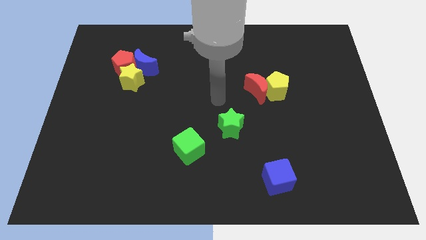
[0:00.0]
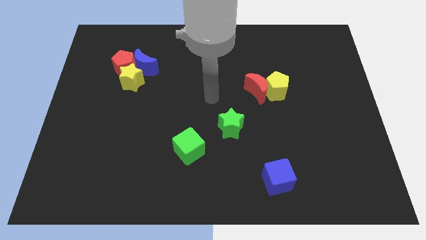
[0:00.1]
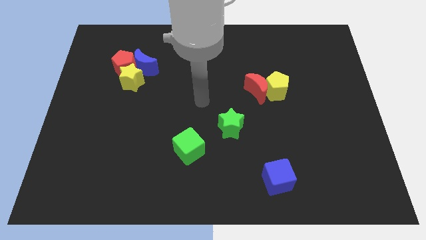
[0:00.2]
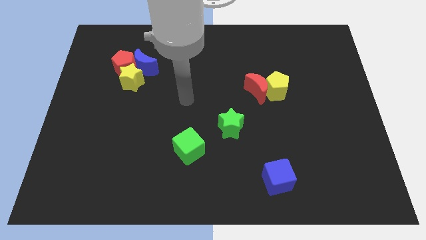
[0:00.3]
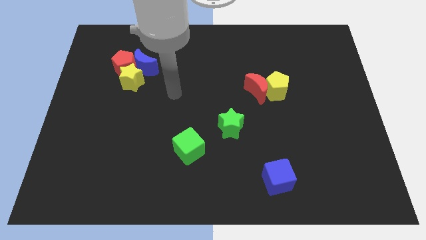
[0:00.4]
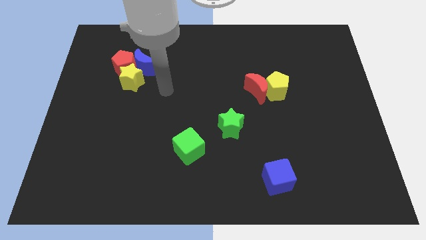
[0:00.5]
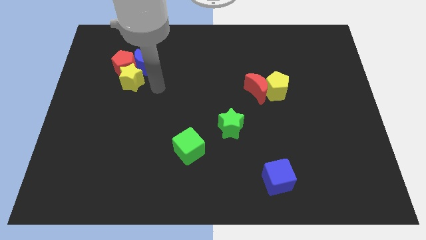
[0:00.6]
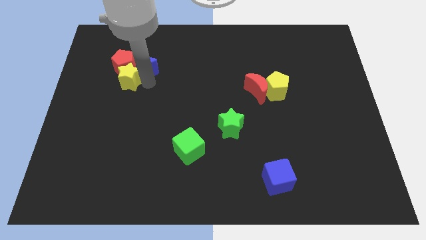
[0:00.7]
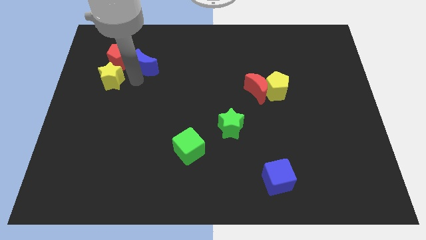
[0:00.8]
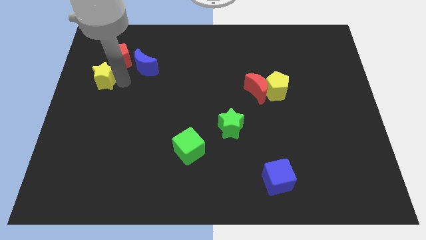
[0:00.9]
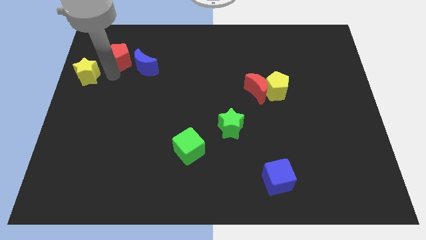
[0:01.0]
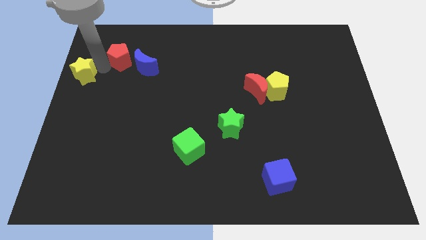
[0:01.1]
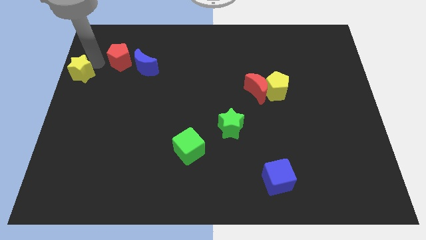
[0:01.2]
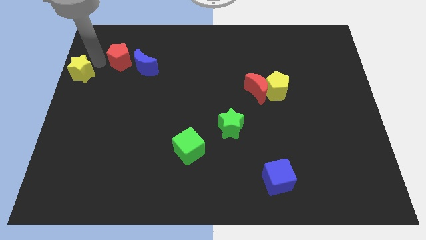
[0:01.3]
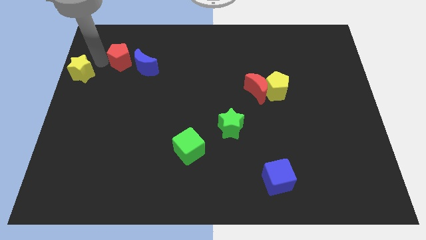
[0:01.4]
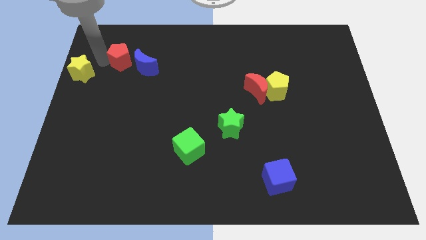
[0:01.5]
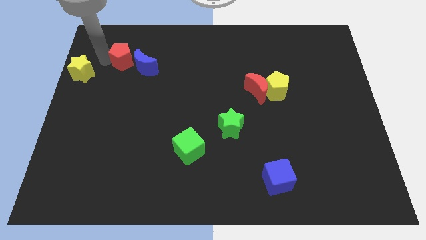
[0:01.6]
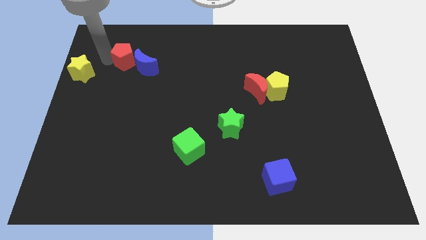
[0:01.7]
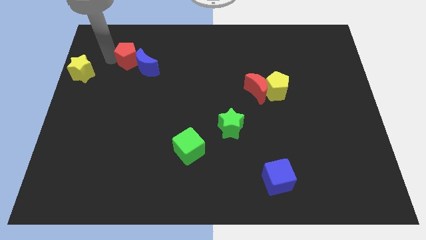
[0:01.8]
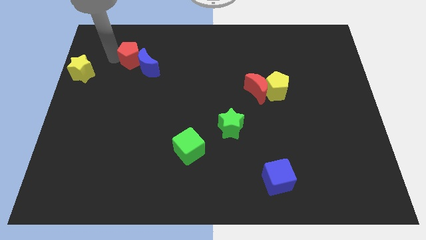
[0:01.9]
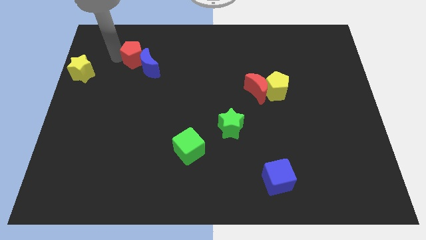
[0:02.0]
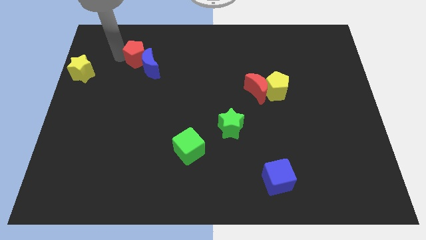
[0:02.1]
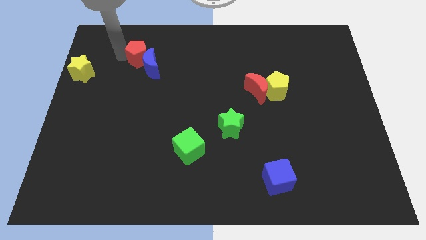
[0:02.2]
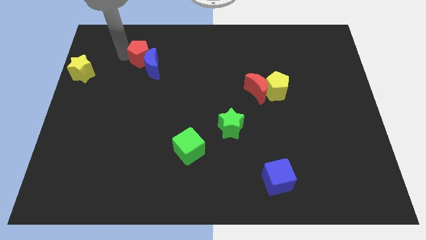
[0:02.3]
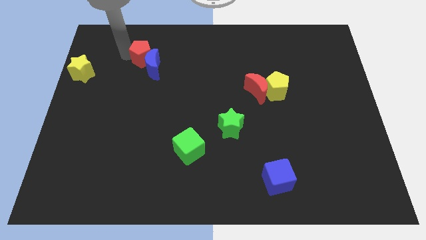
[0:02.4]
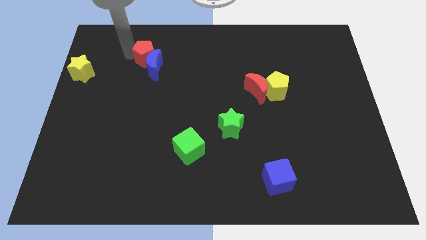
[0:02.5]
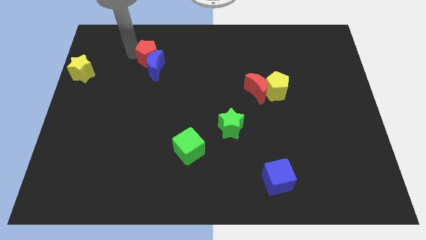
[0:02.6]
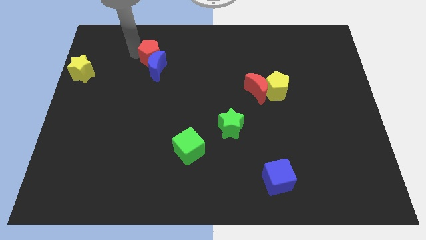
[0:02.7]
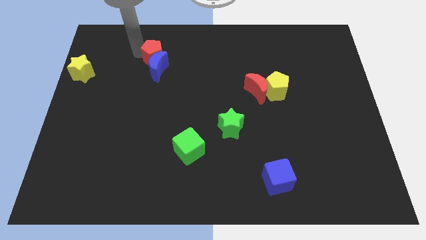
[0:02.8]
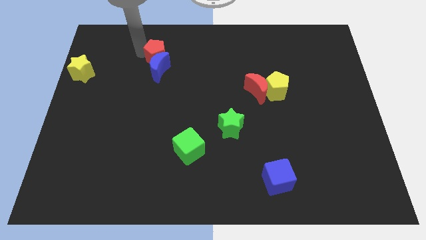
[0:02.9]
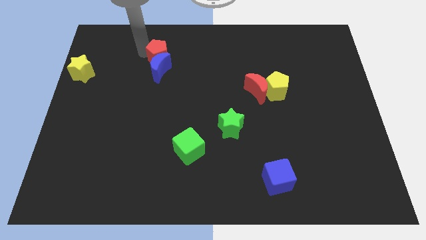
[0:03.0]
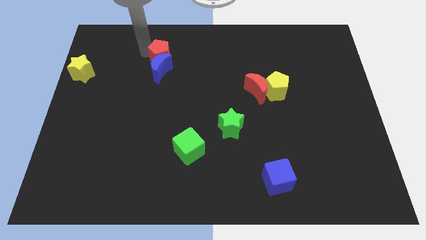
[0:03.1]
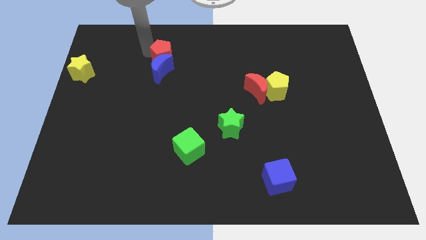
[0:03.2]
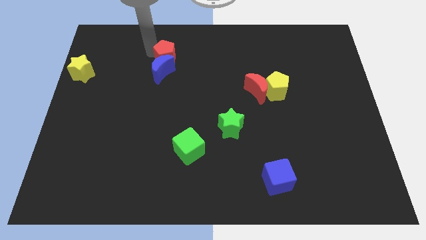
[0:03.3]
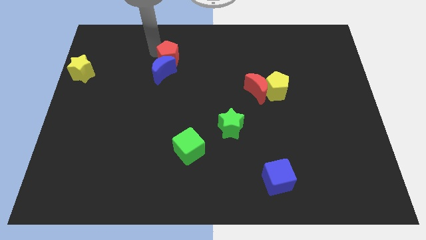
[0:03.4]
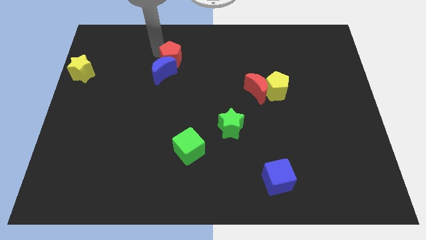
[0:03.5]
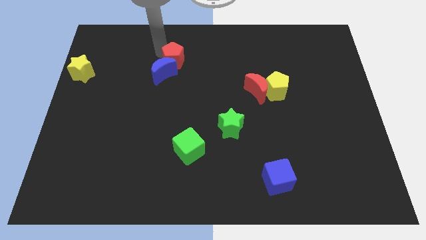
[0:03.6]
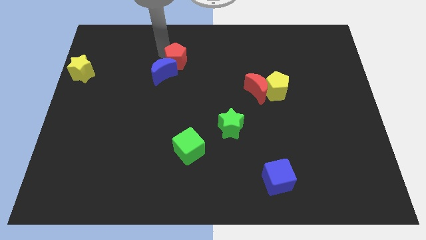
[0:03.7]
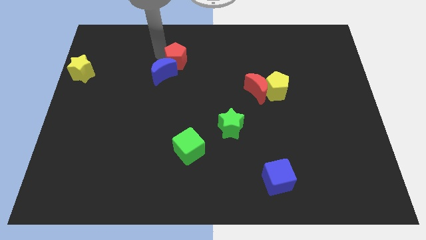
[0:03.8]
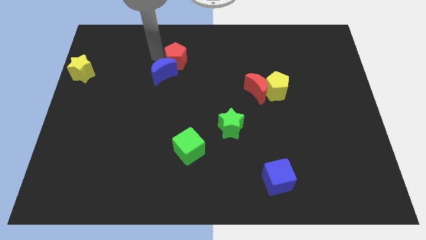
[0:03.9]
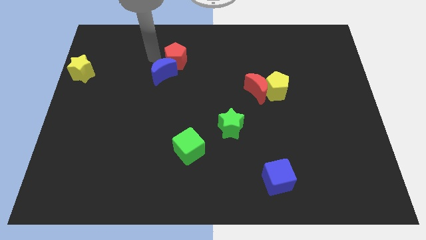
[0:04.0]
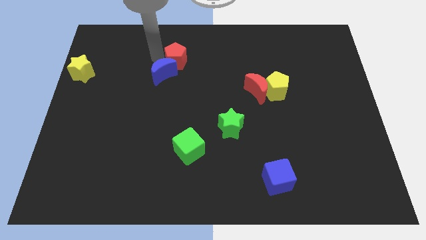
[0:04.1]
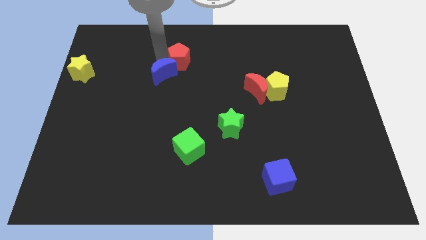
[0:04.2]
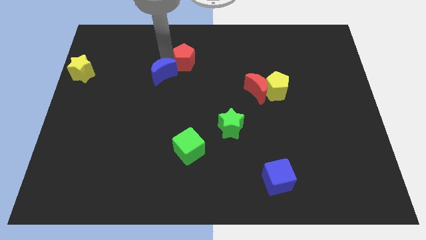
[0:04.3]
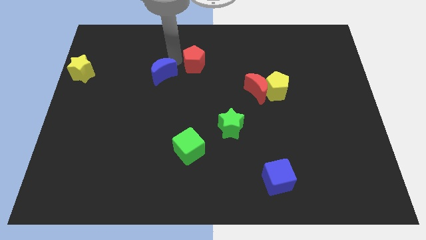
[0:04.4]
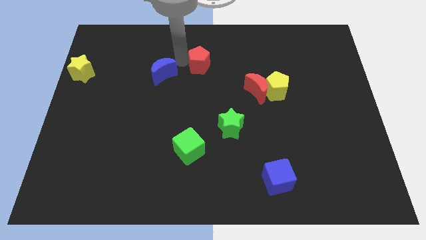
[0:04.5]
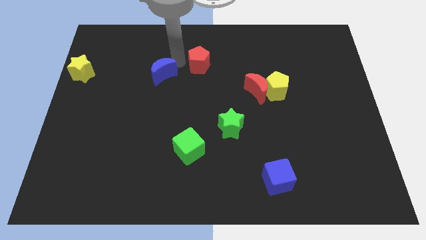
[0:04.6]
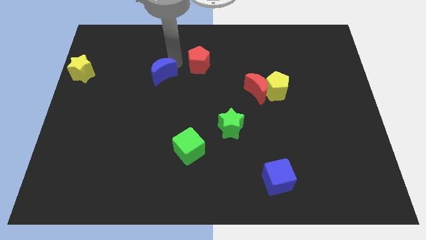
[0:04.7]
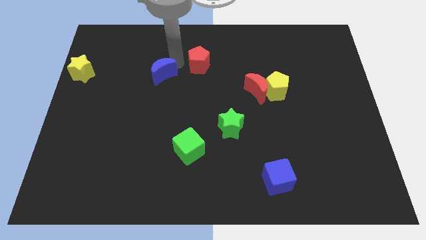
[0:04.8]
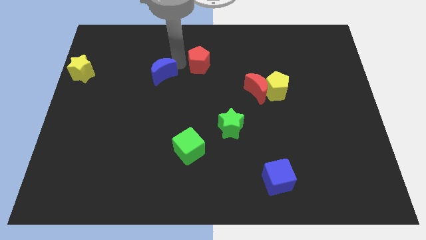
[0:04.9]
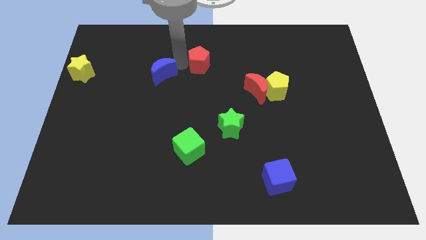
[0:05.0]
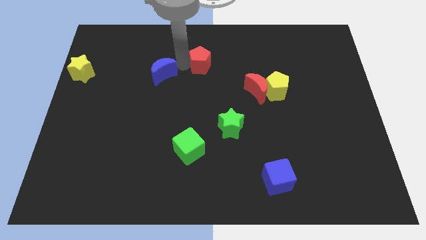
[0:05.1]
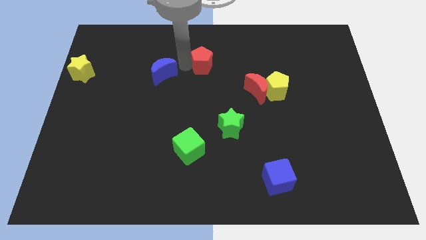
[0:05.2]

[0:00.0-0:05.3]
slide the red pentagon right

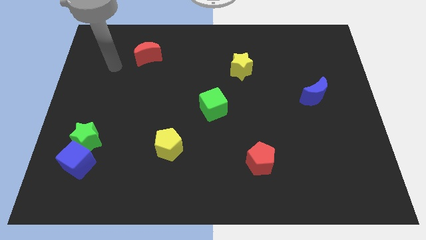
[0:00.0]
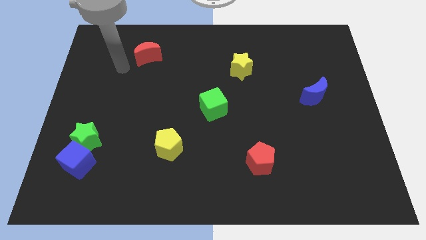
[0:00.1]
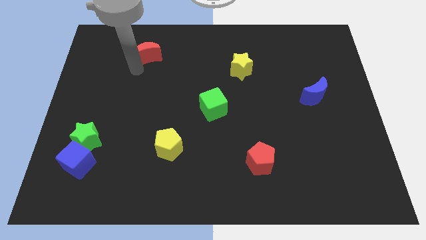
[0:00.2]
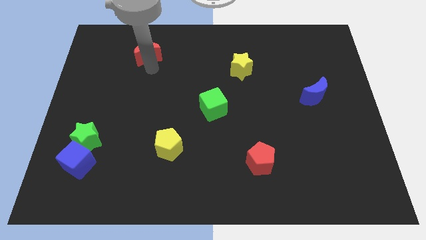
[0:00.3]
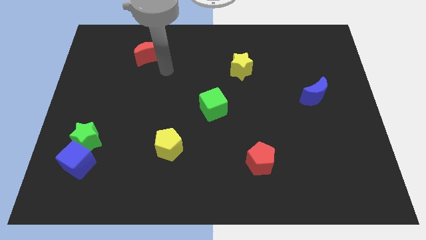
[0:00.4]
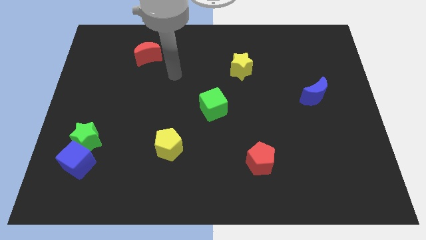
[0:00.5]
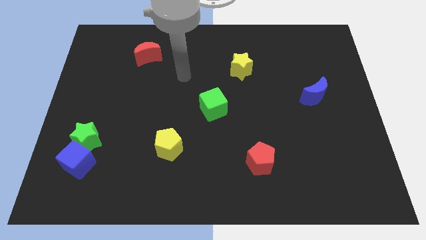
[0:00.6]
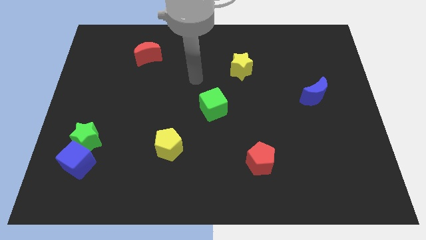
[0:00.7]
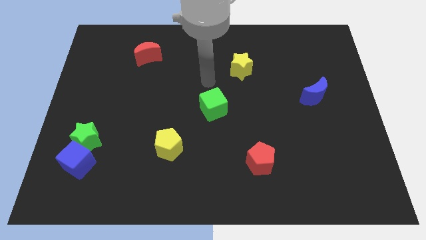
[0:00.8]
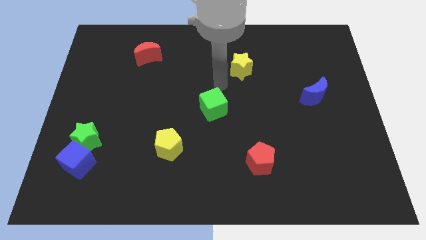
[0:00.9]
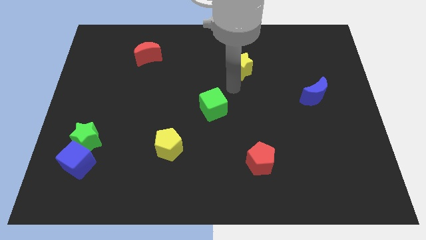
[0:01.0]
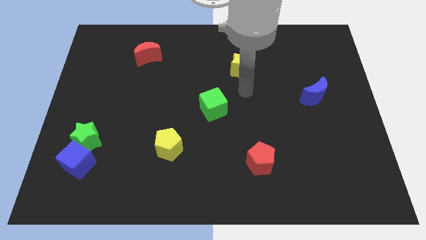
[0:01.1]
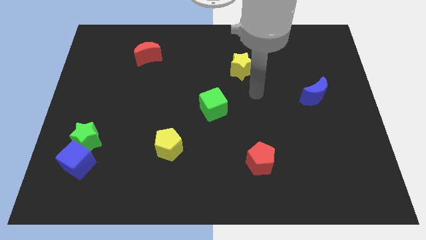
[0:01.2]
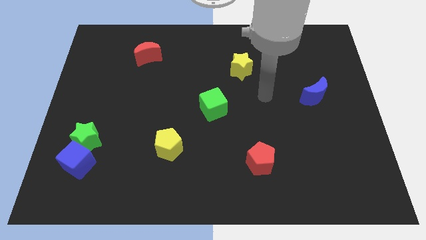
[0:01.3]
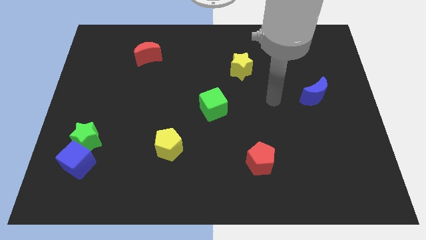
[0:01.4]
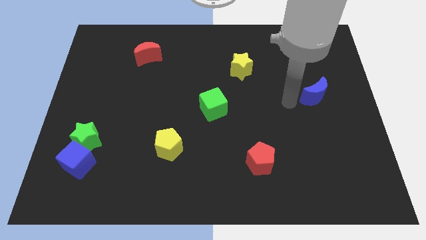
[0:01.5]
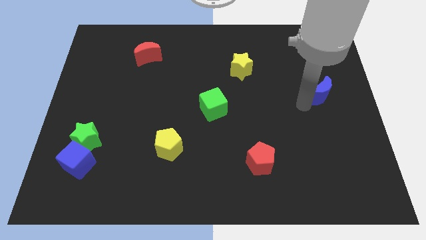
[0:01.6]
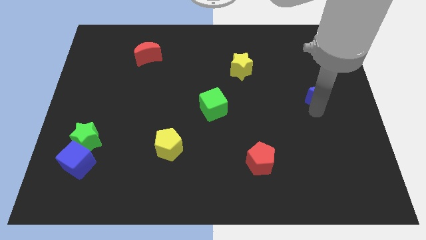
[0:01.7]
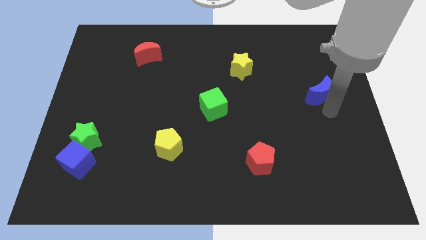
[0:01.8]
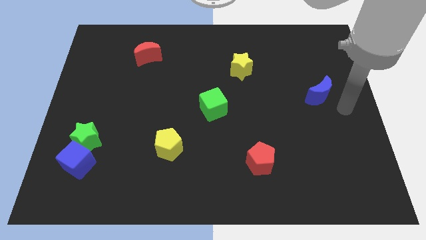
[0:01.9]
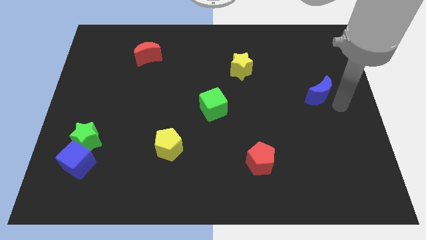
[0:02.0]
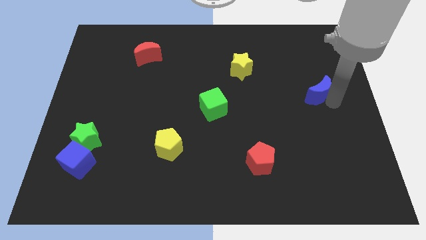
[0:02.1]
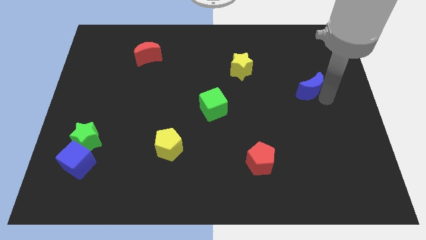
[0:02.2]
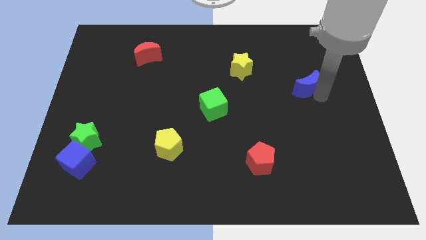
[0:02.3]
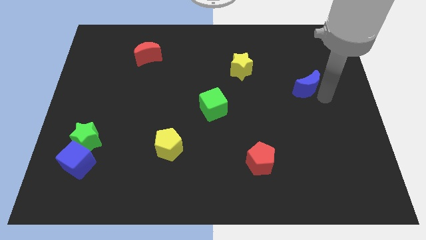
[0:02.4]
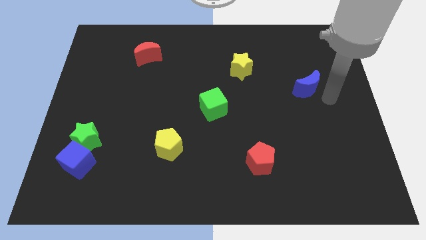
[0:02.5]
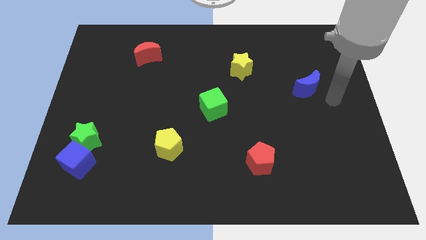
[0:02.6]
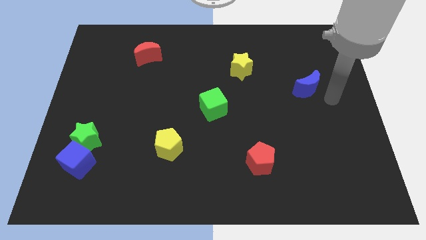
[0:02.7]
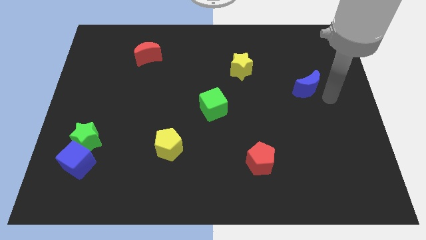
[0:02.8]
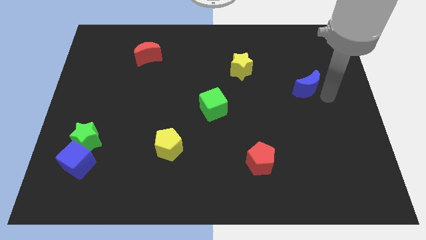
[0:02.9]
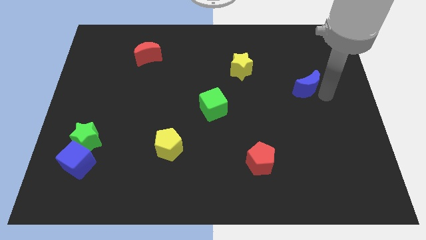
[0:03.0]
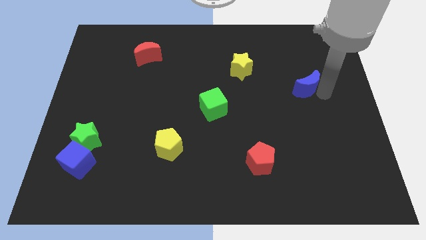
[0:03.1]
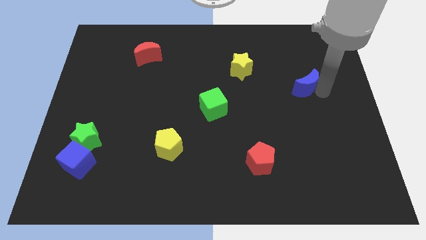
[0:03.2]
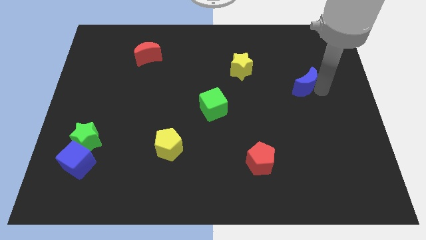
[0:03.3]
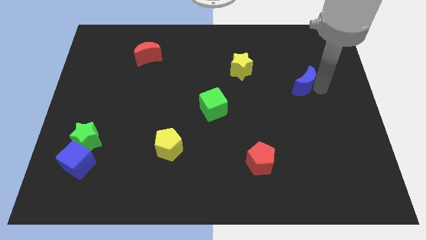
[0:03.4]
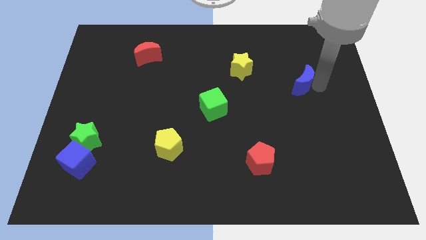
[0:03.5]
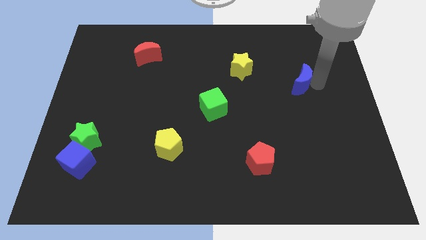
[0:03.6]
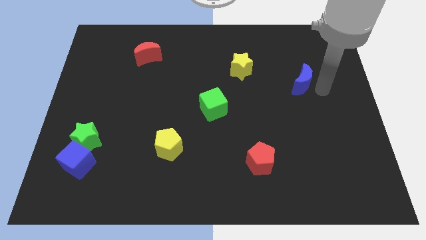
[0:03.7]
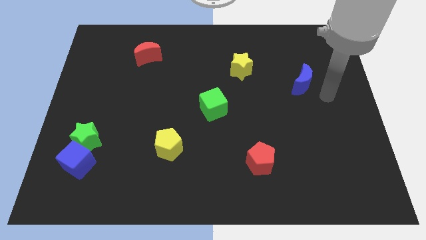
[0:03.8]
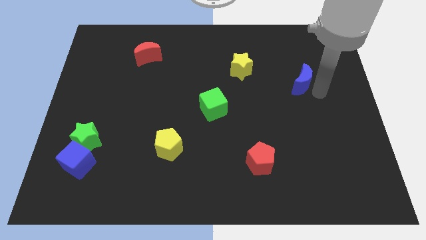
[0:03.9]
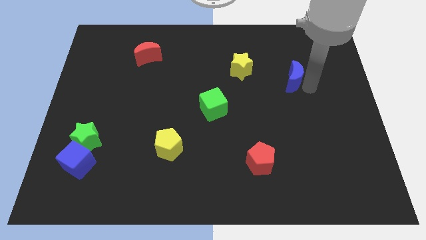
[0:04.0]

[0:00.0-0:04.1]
push the blue moon upwards and to the left a little
